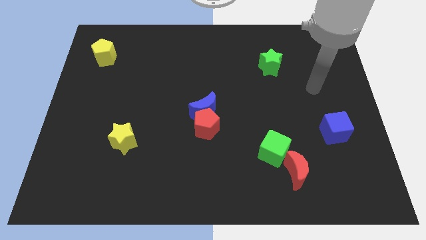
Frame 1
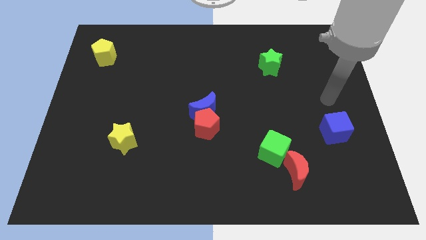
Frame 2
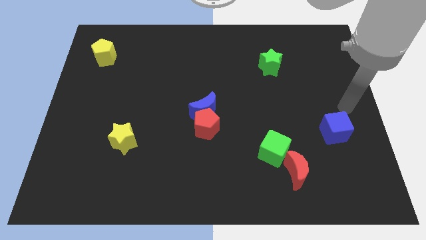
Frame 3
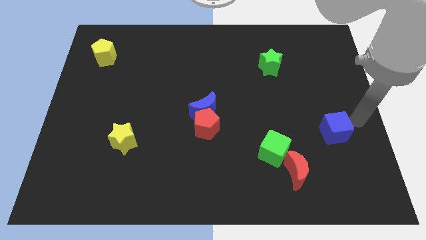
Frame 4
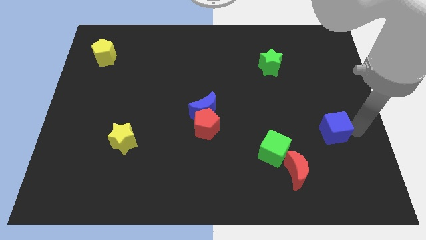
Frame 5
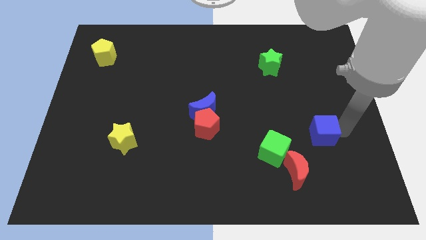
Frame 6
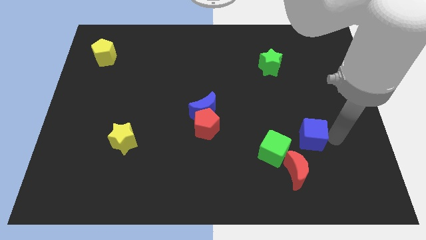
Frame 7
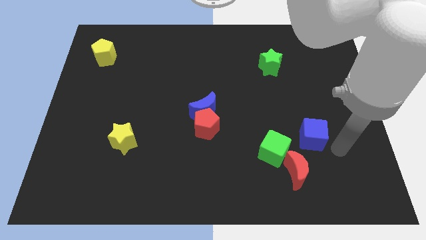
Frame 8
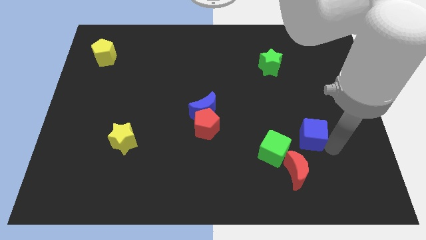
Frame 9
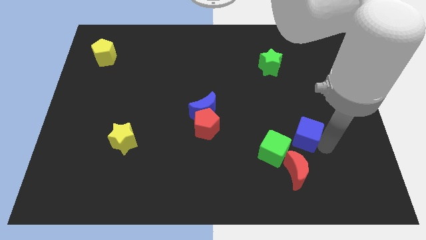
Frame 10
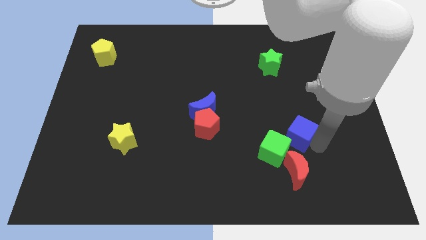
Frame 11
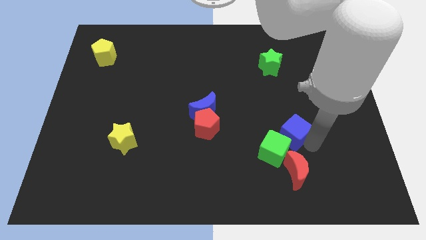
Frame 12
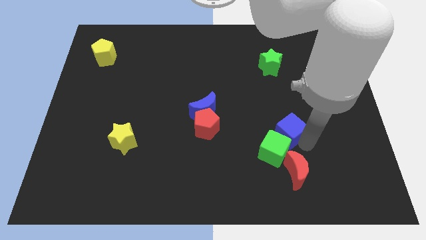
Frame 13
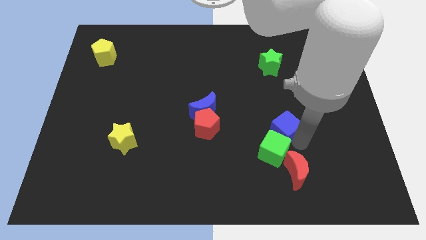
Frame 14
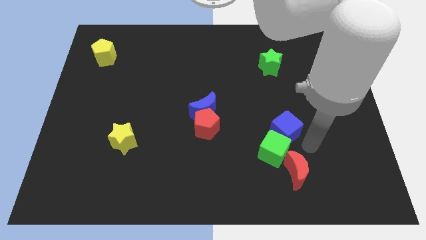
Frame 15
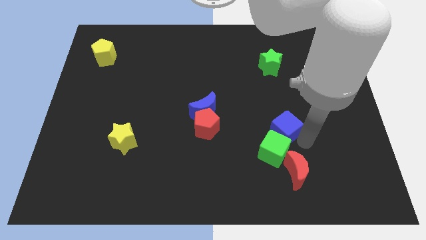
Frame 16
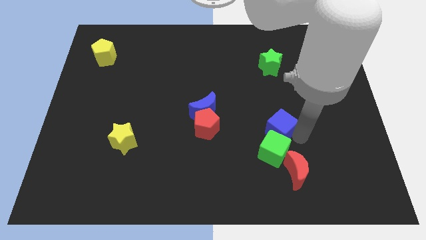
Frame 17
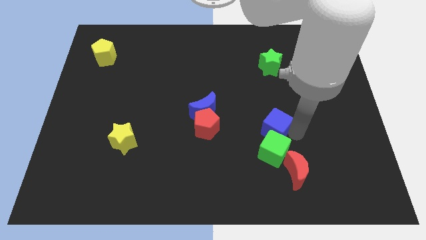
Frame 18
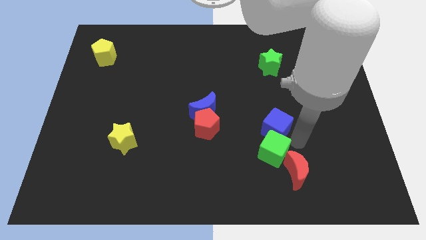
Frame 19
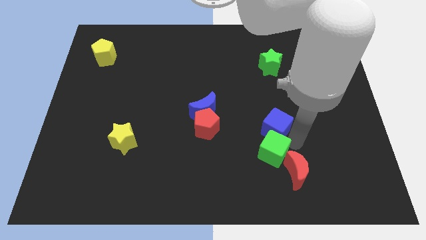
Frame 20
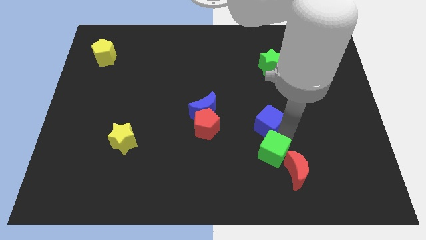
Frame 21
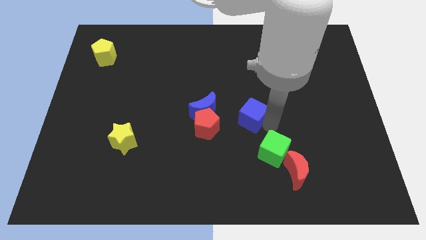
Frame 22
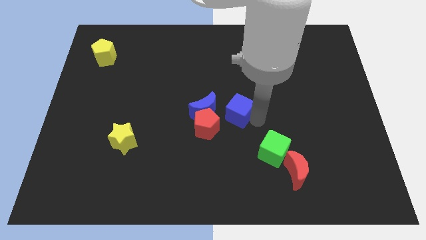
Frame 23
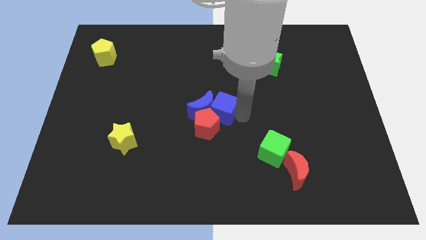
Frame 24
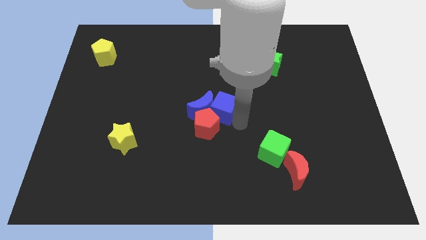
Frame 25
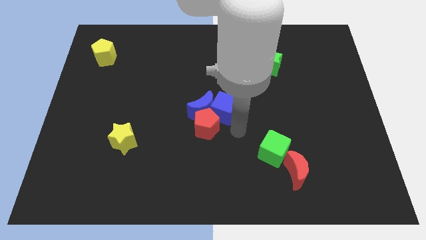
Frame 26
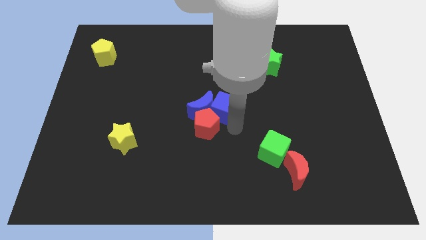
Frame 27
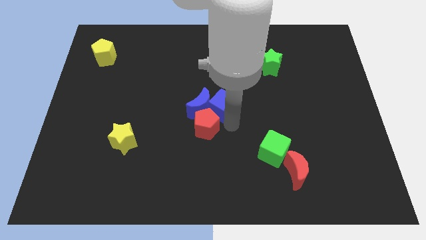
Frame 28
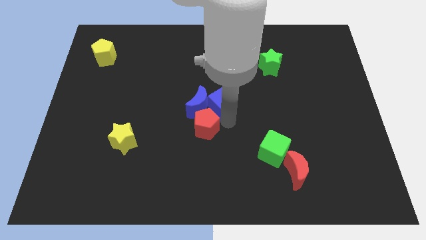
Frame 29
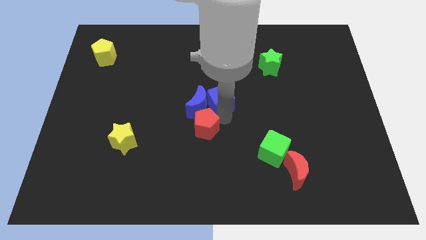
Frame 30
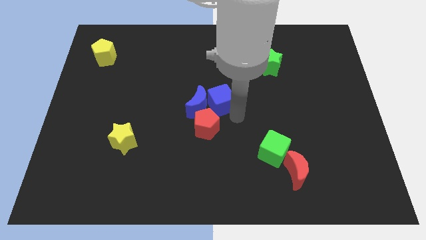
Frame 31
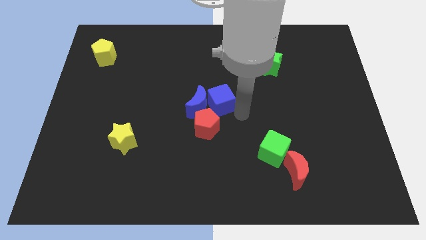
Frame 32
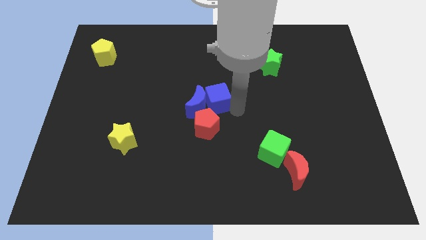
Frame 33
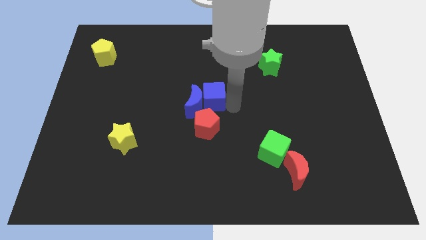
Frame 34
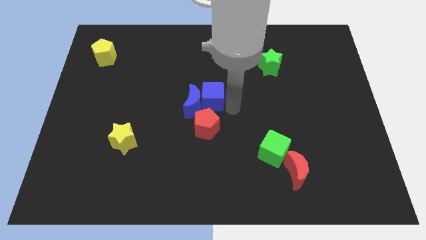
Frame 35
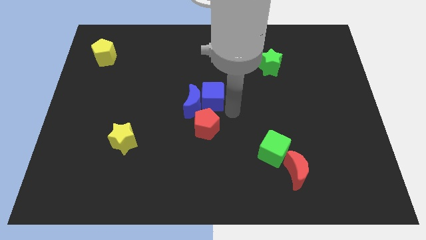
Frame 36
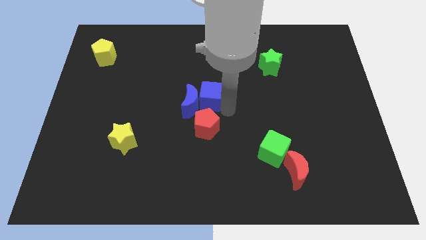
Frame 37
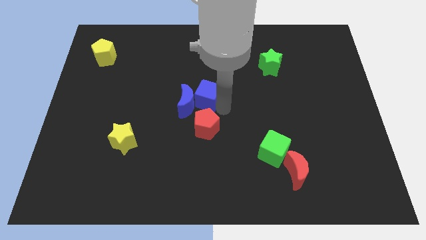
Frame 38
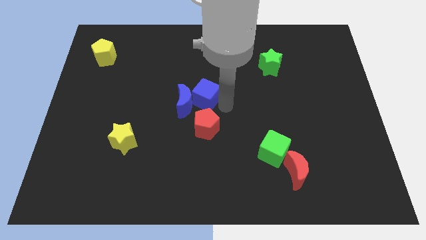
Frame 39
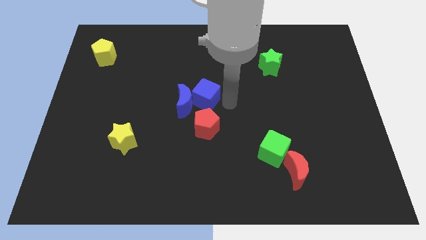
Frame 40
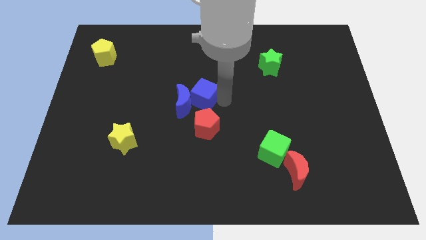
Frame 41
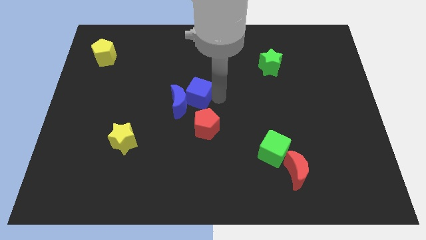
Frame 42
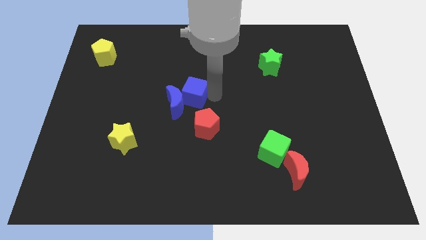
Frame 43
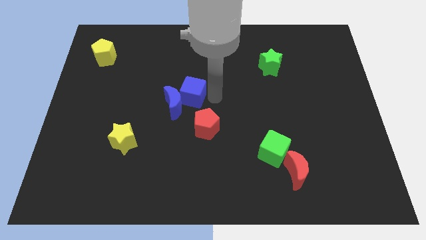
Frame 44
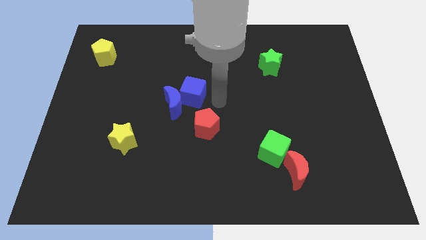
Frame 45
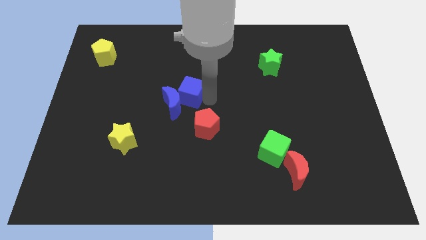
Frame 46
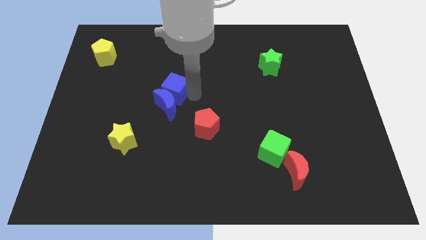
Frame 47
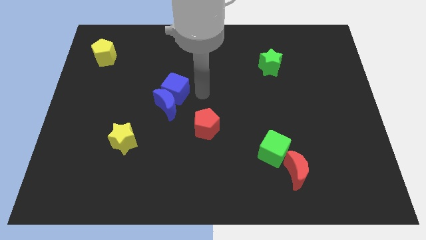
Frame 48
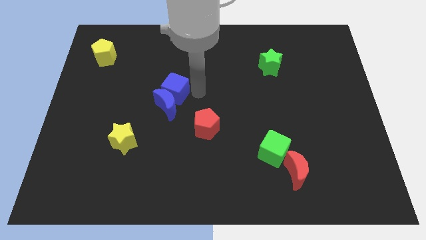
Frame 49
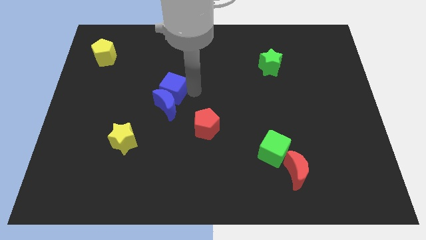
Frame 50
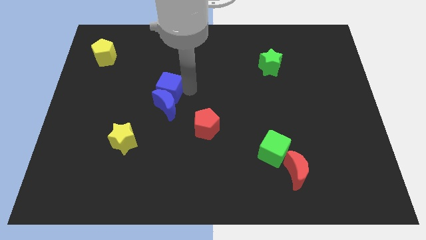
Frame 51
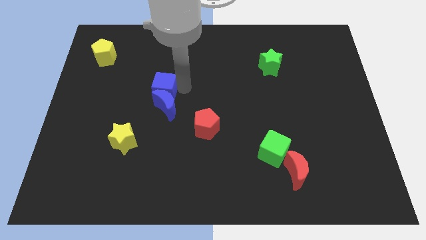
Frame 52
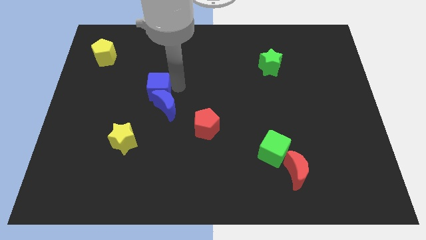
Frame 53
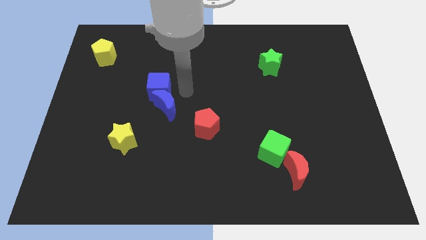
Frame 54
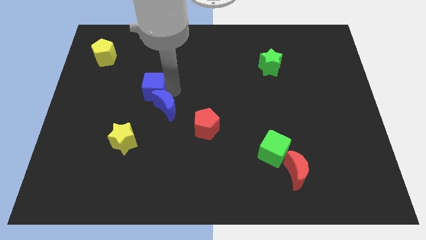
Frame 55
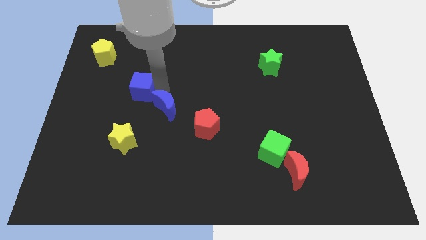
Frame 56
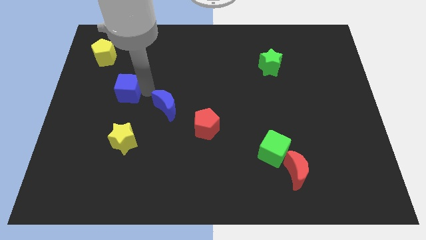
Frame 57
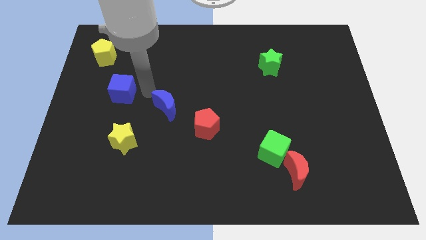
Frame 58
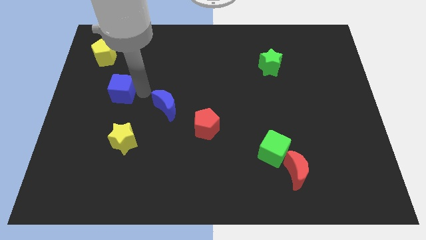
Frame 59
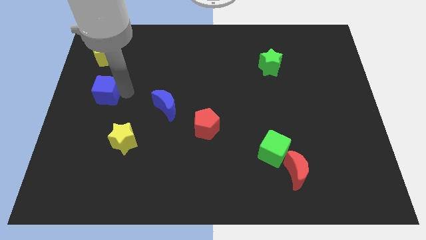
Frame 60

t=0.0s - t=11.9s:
move the blue cube to the center left

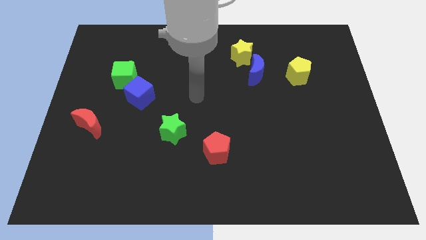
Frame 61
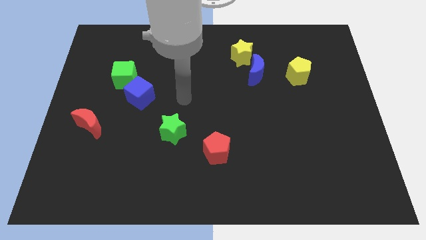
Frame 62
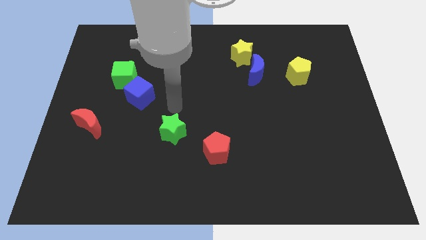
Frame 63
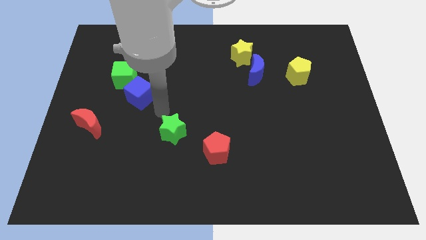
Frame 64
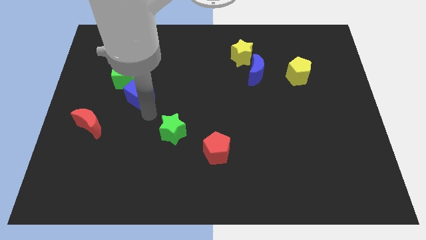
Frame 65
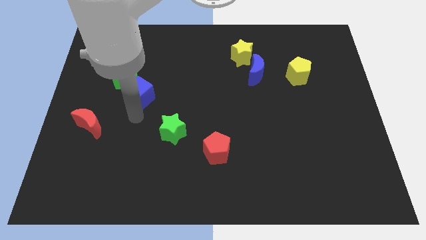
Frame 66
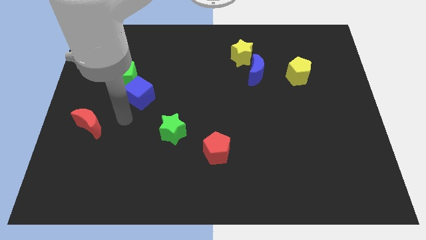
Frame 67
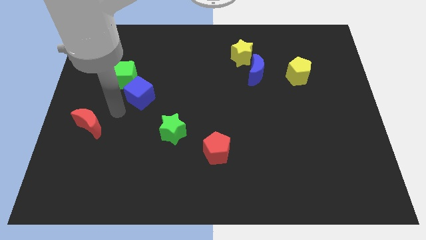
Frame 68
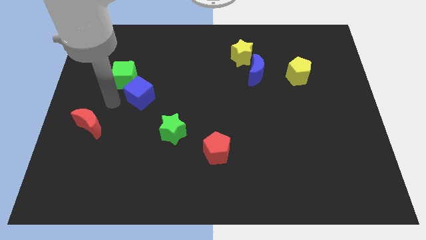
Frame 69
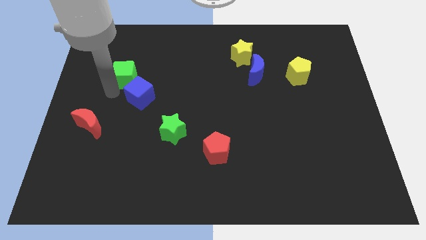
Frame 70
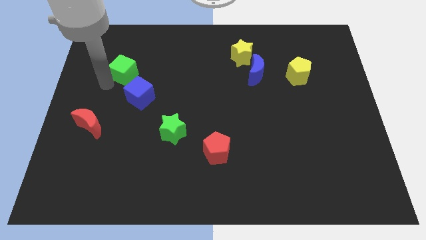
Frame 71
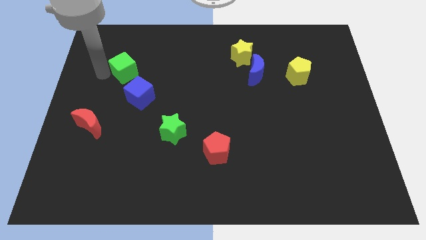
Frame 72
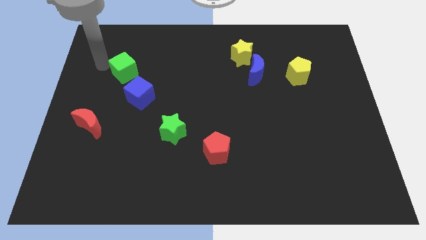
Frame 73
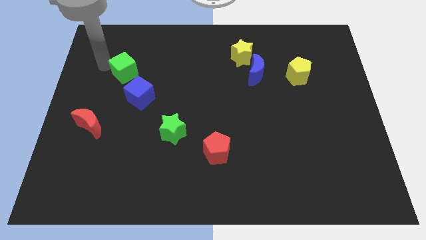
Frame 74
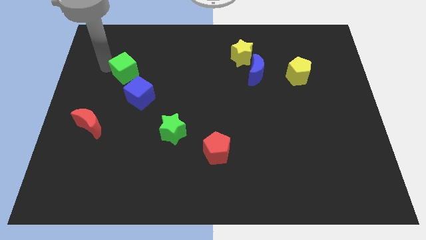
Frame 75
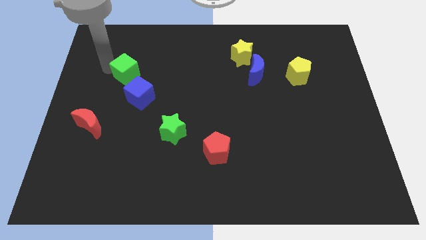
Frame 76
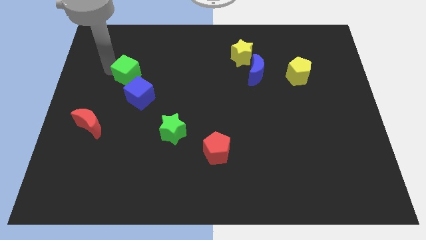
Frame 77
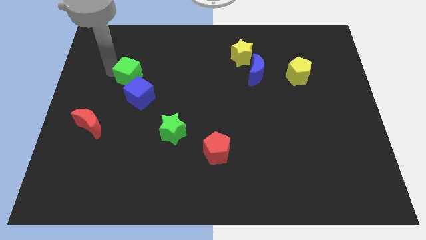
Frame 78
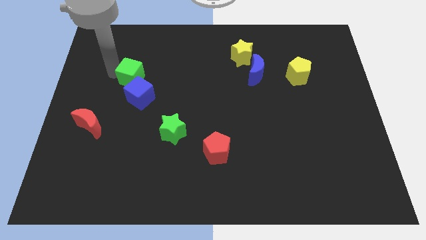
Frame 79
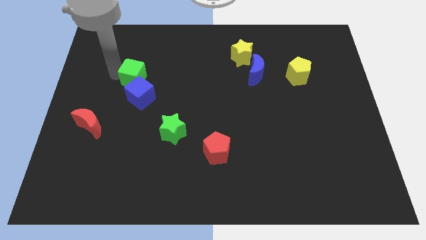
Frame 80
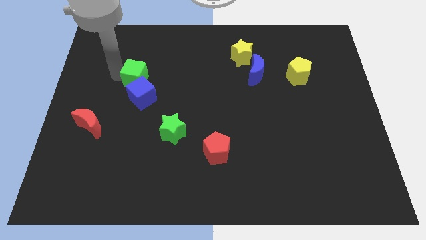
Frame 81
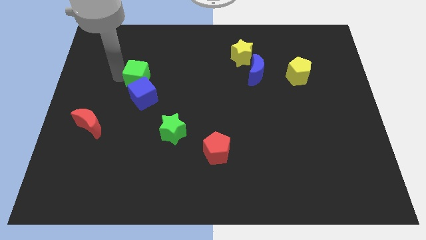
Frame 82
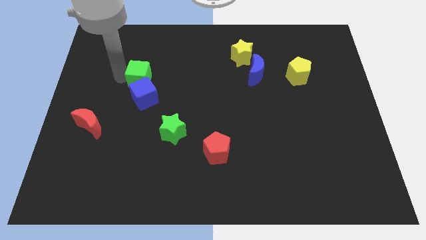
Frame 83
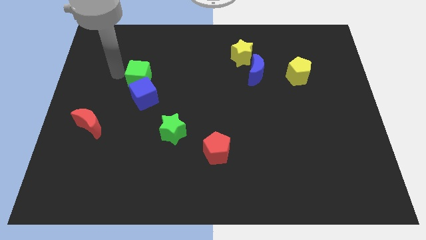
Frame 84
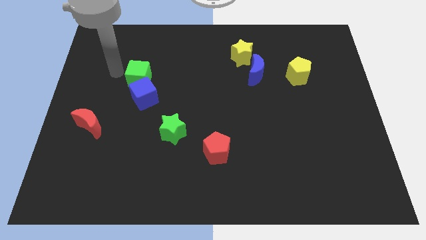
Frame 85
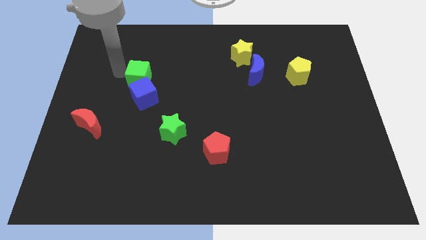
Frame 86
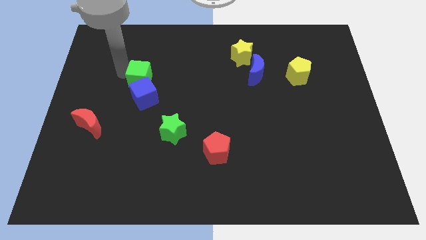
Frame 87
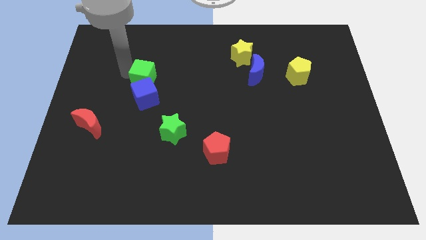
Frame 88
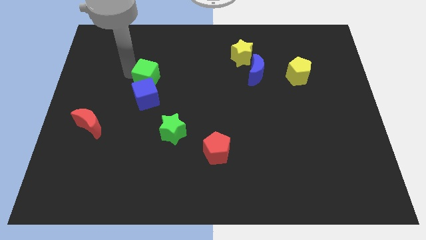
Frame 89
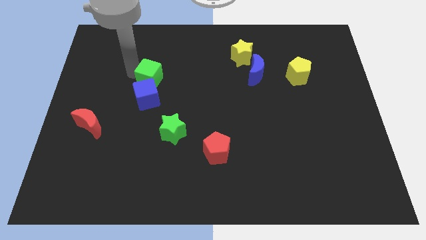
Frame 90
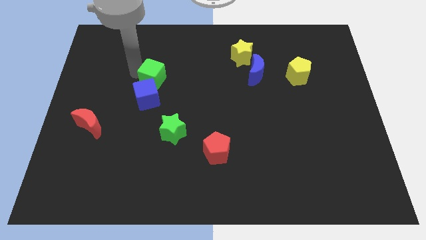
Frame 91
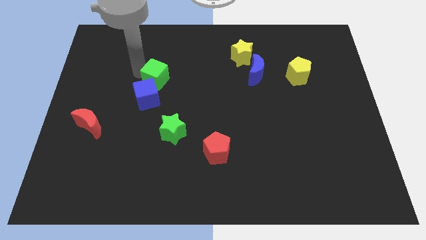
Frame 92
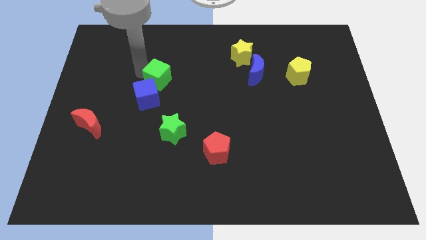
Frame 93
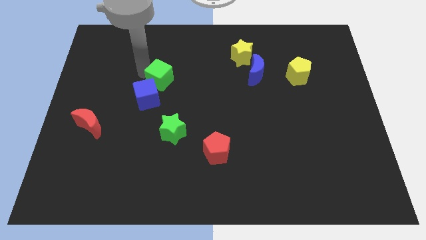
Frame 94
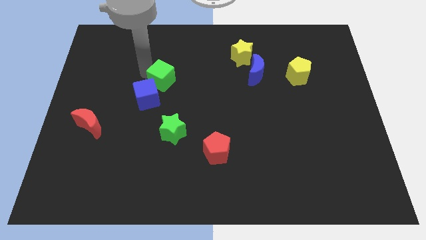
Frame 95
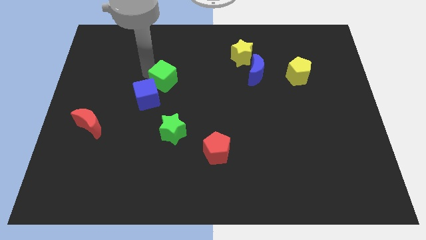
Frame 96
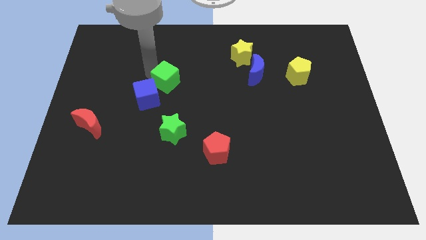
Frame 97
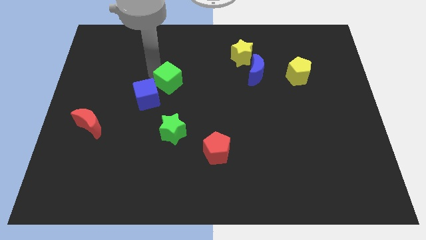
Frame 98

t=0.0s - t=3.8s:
move the green cube to the middle
